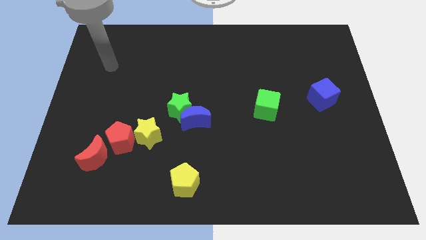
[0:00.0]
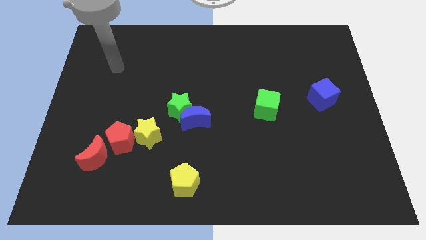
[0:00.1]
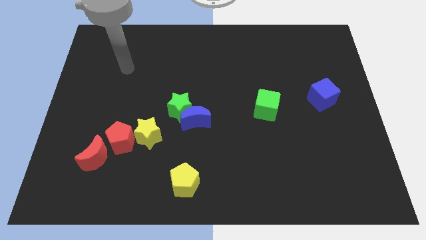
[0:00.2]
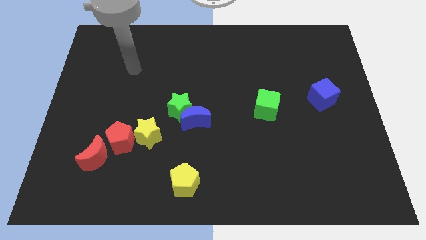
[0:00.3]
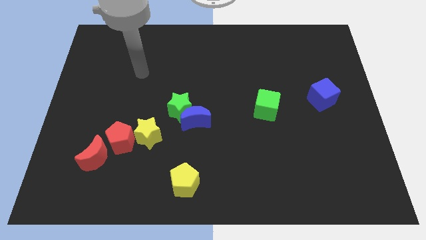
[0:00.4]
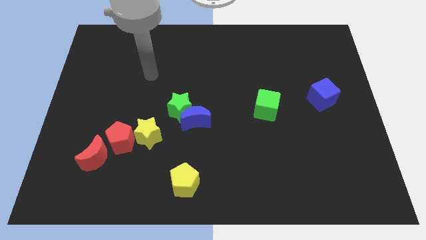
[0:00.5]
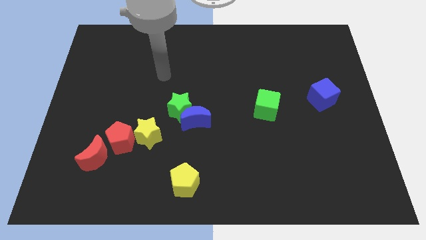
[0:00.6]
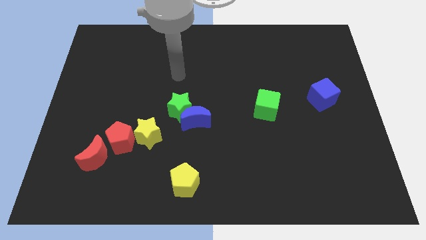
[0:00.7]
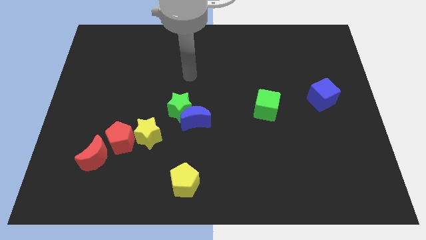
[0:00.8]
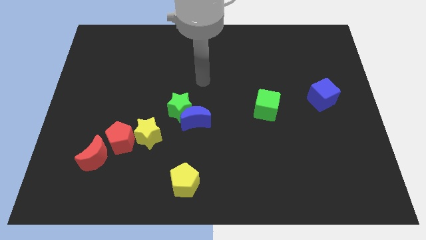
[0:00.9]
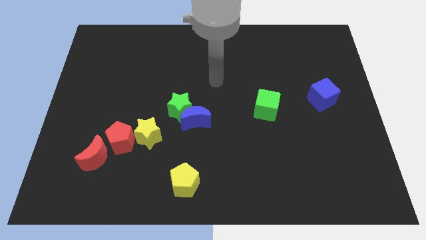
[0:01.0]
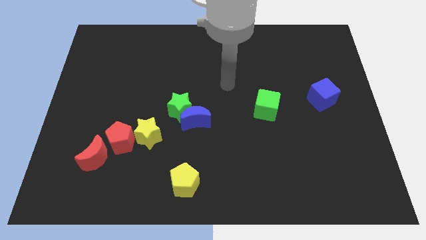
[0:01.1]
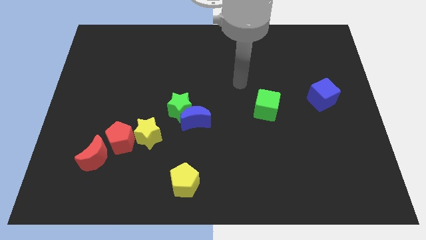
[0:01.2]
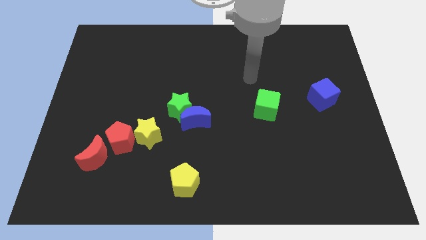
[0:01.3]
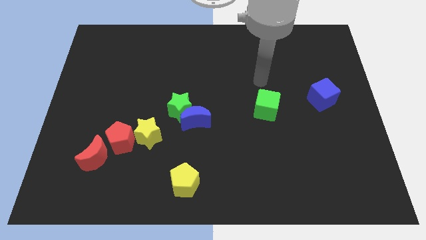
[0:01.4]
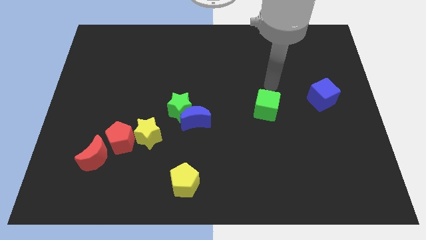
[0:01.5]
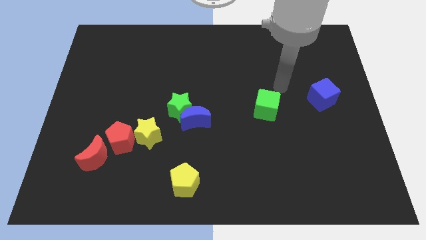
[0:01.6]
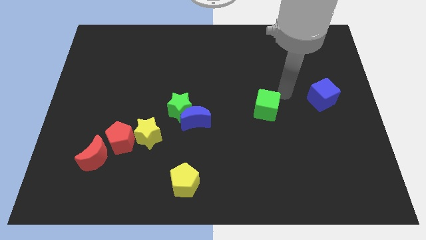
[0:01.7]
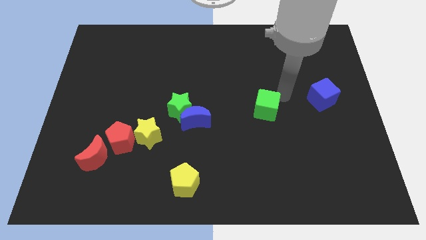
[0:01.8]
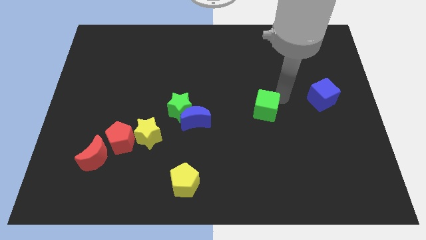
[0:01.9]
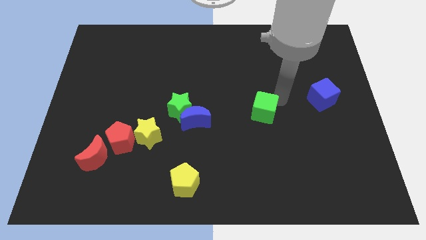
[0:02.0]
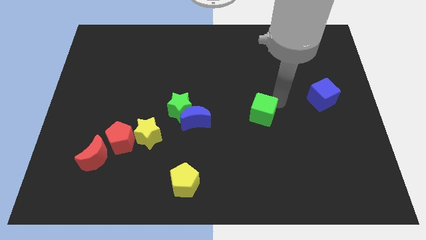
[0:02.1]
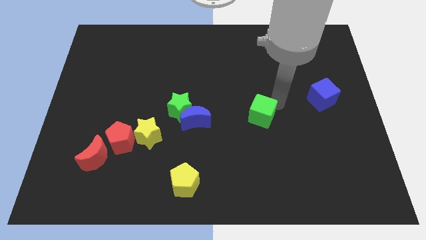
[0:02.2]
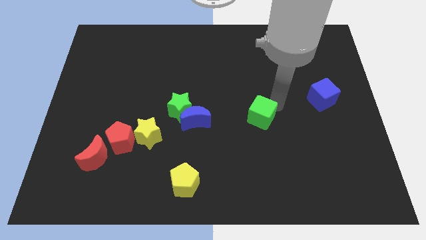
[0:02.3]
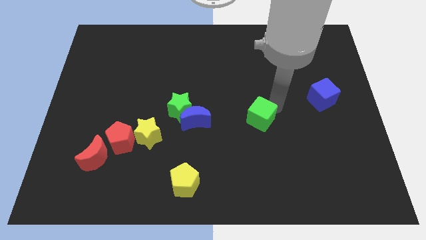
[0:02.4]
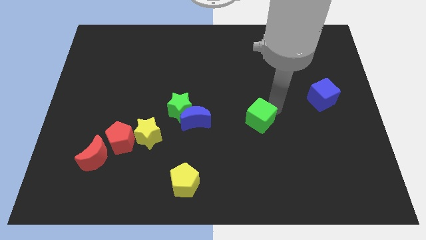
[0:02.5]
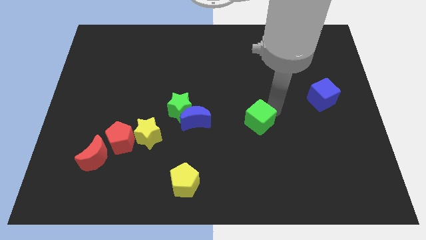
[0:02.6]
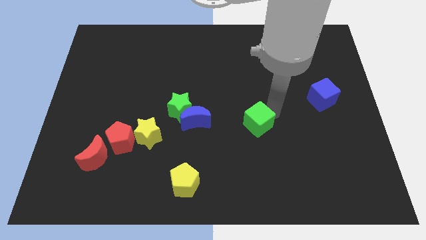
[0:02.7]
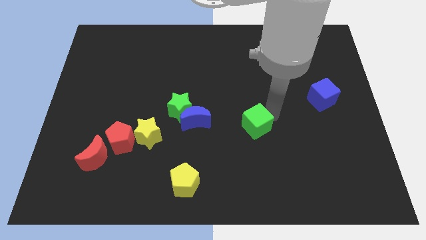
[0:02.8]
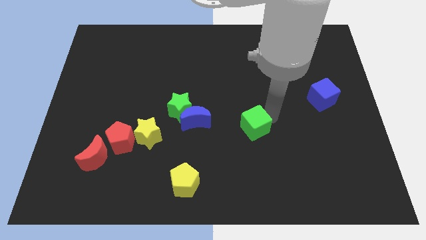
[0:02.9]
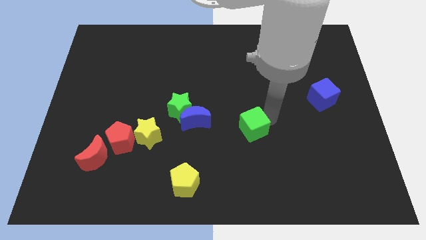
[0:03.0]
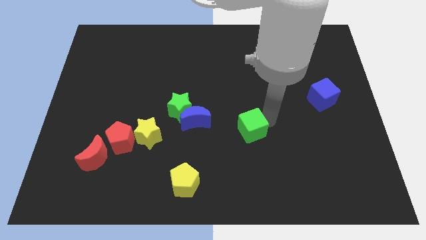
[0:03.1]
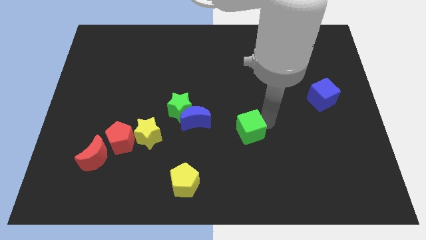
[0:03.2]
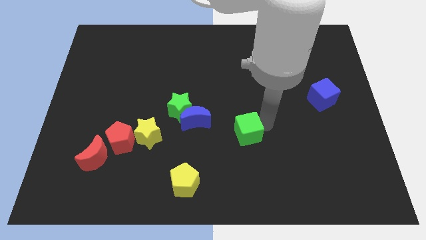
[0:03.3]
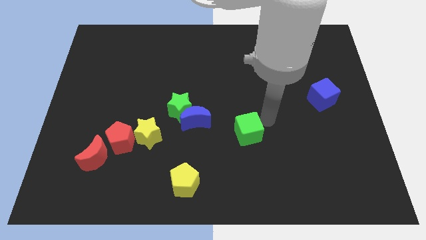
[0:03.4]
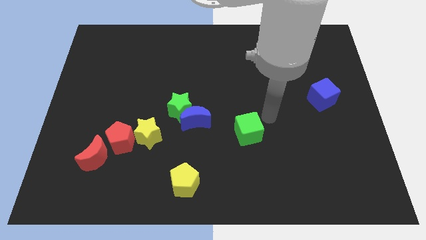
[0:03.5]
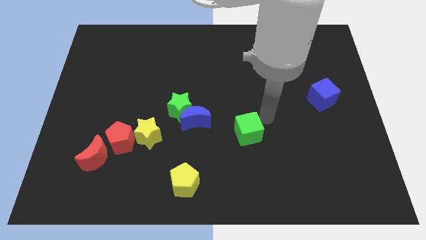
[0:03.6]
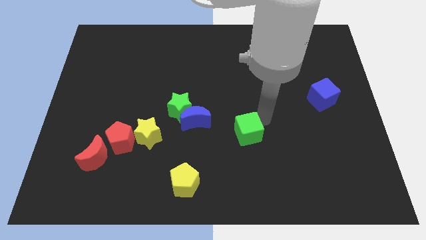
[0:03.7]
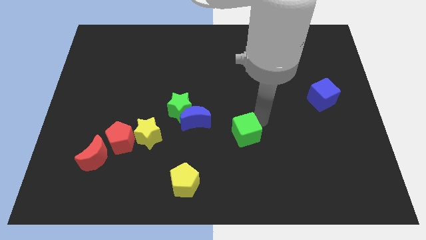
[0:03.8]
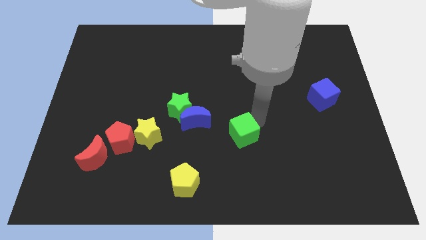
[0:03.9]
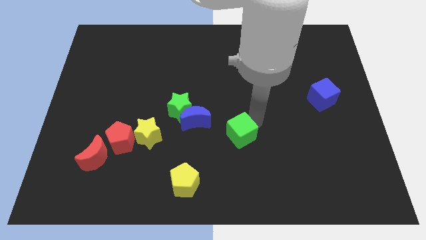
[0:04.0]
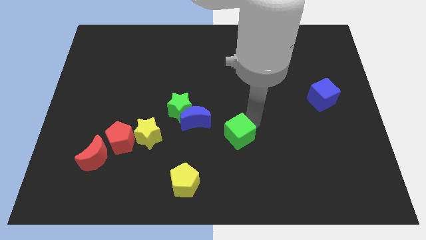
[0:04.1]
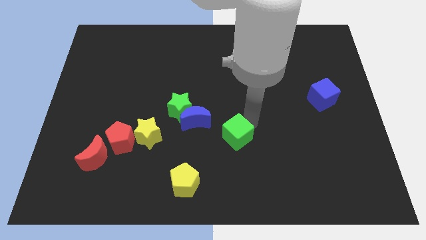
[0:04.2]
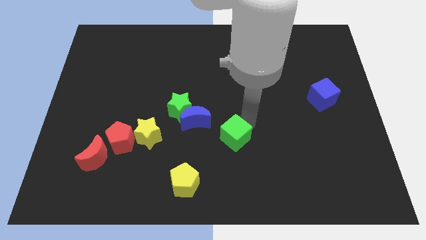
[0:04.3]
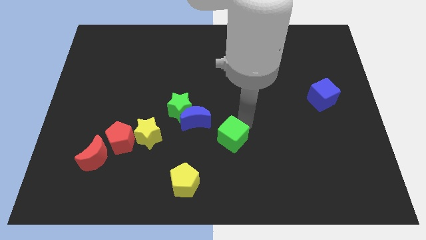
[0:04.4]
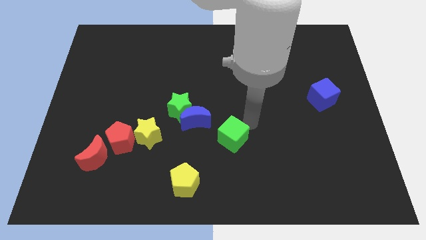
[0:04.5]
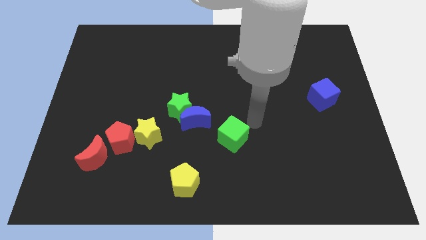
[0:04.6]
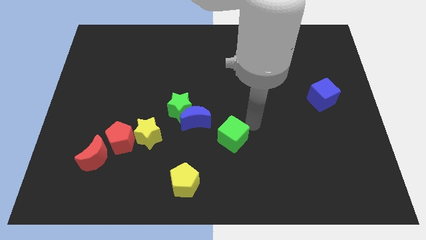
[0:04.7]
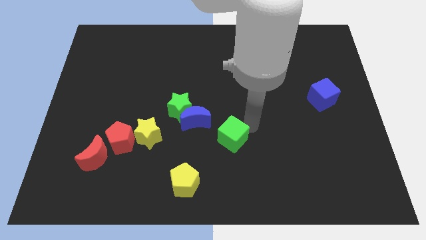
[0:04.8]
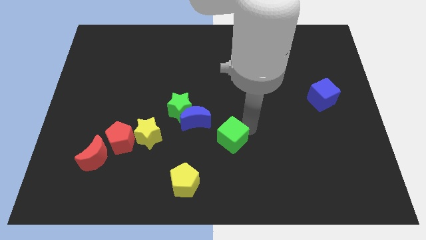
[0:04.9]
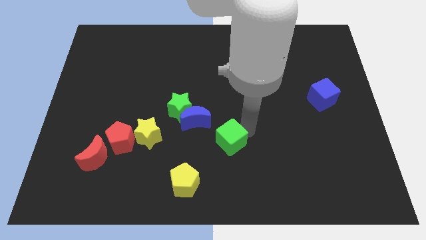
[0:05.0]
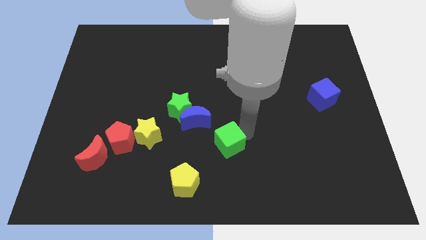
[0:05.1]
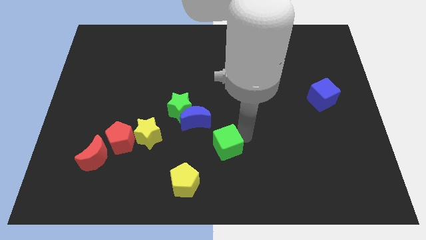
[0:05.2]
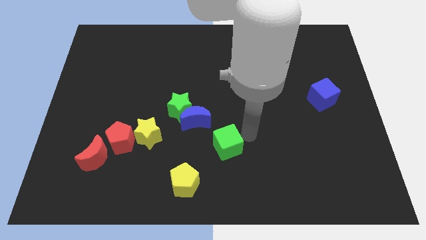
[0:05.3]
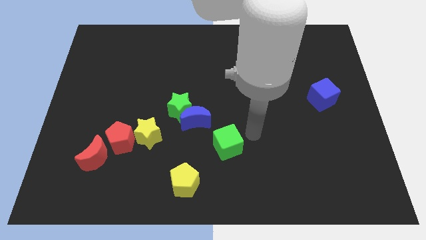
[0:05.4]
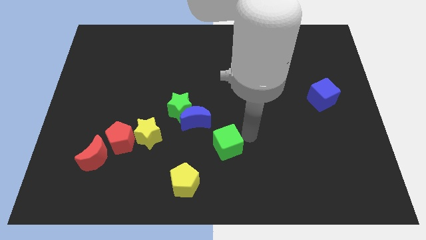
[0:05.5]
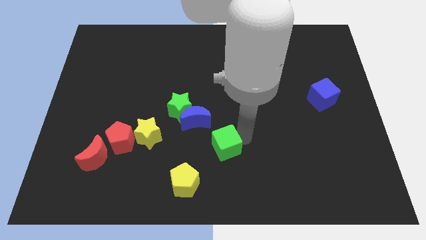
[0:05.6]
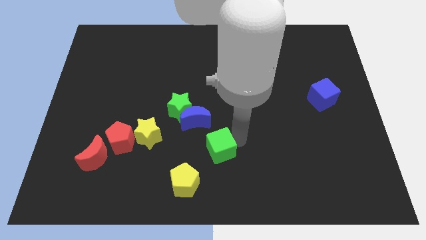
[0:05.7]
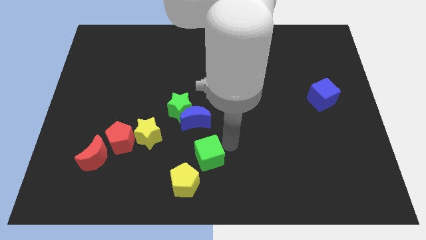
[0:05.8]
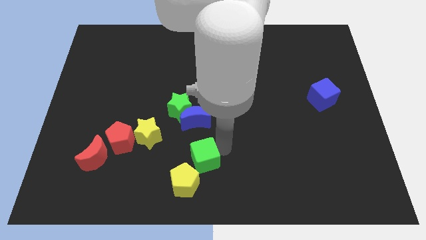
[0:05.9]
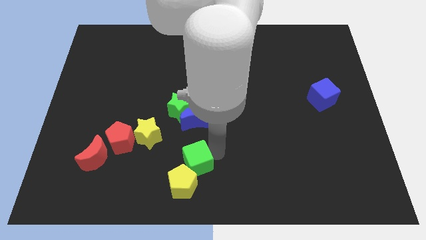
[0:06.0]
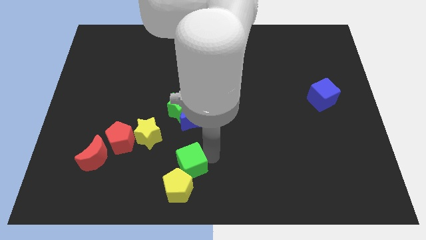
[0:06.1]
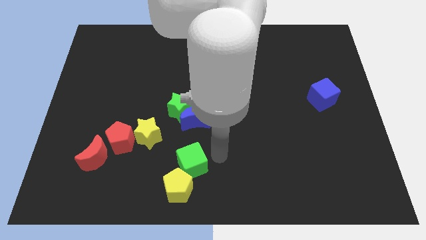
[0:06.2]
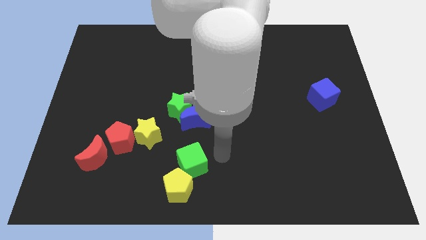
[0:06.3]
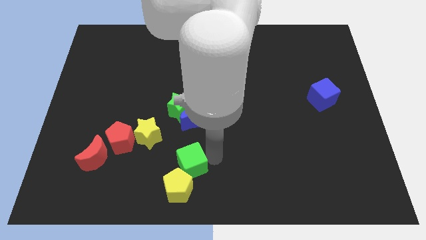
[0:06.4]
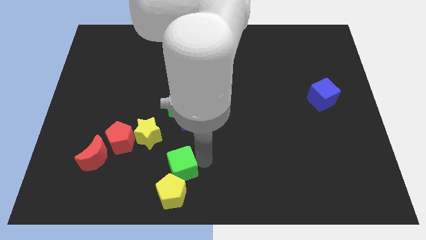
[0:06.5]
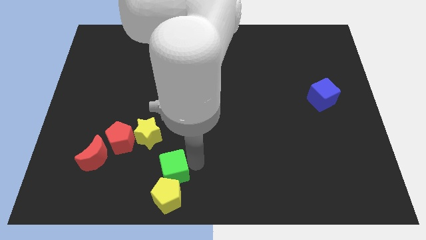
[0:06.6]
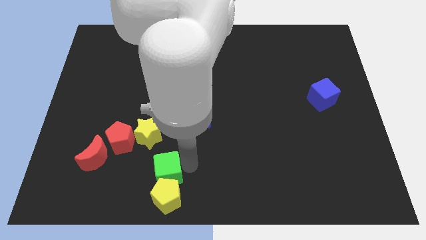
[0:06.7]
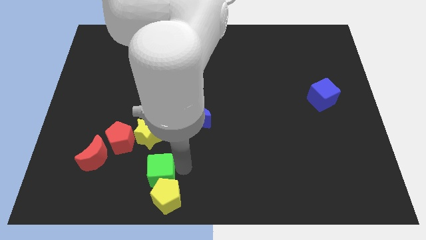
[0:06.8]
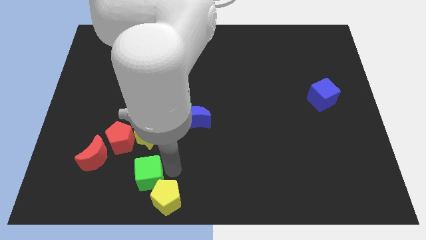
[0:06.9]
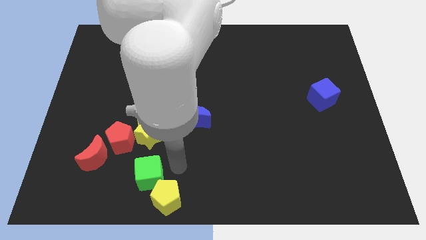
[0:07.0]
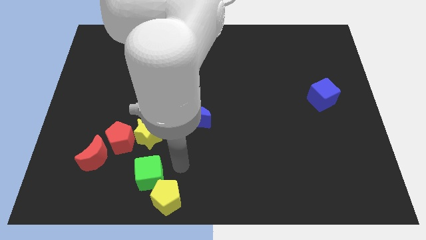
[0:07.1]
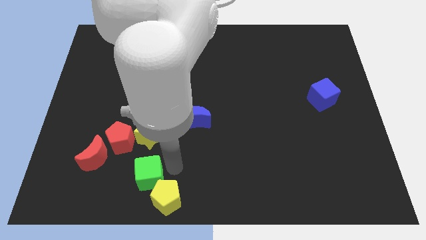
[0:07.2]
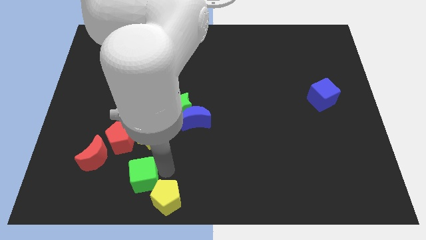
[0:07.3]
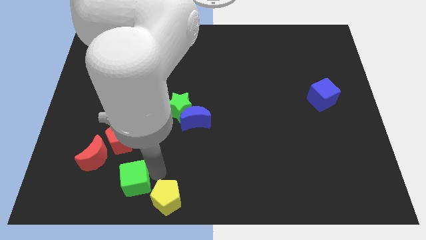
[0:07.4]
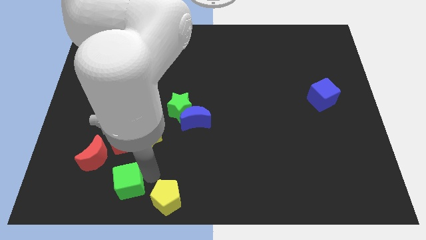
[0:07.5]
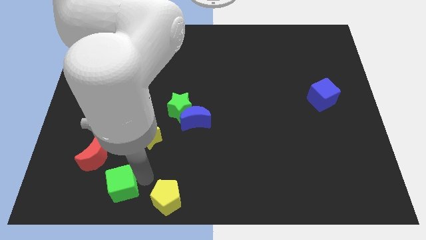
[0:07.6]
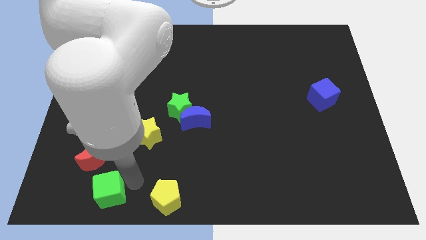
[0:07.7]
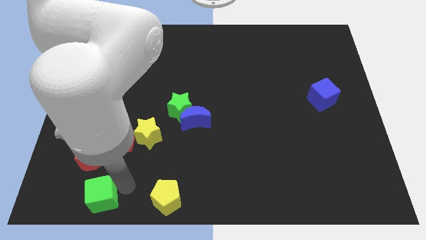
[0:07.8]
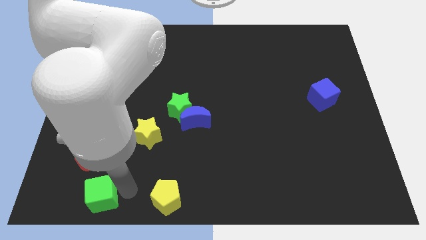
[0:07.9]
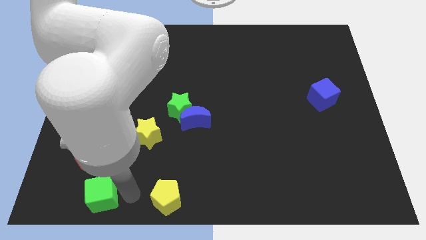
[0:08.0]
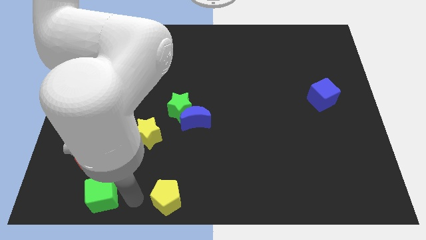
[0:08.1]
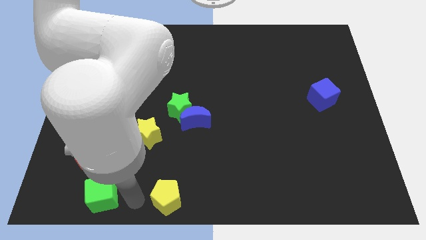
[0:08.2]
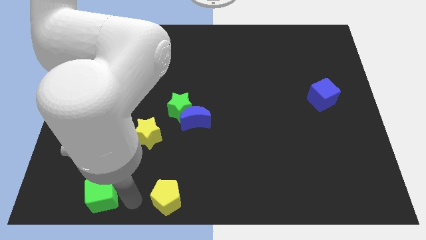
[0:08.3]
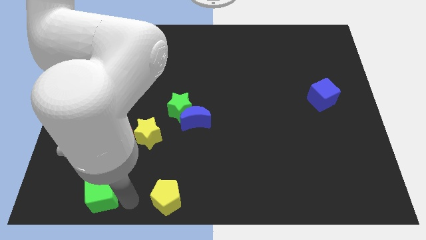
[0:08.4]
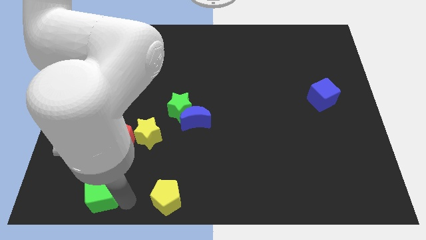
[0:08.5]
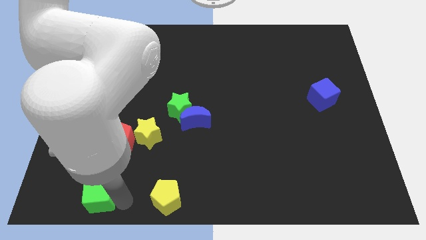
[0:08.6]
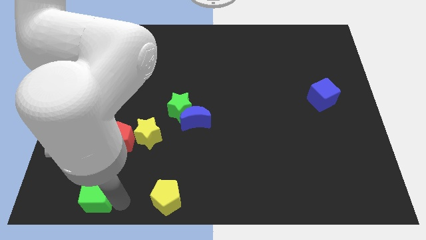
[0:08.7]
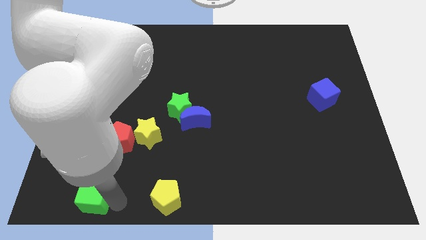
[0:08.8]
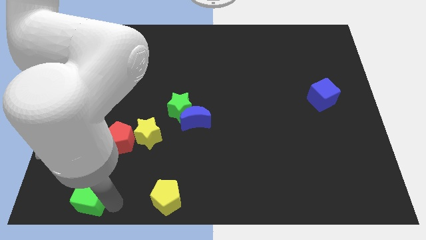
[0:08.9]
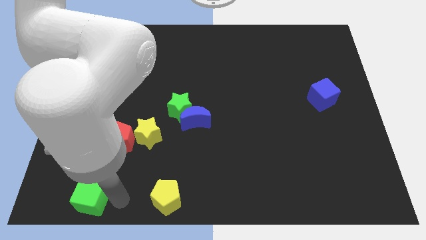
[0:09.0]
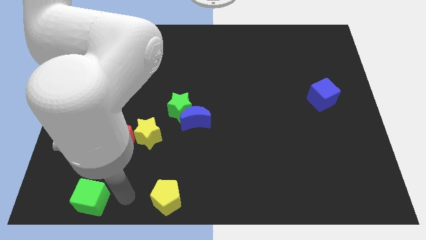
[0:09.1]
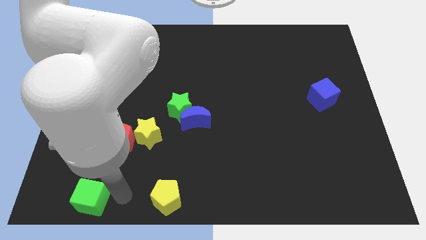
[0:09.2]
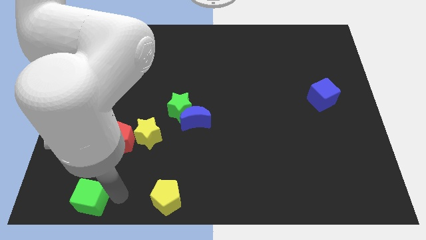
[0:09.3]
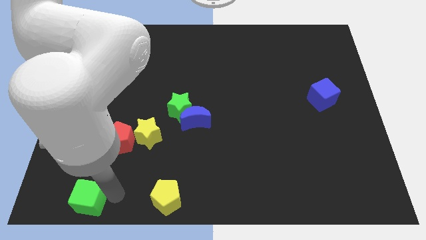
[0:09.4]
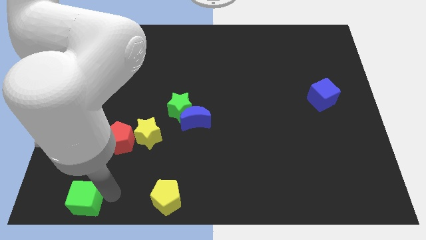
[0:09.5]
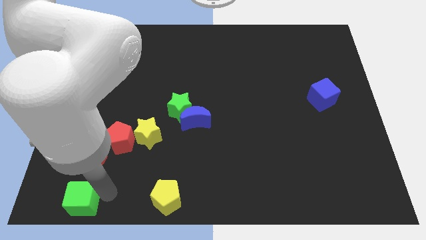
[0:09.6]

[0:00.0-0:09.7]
push the green cube to the bottom left corner
